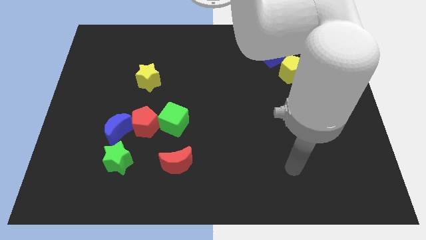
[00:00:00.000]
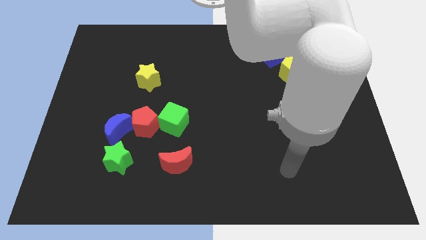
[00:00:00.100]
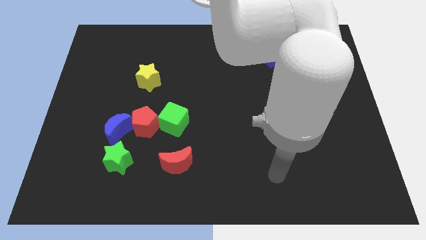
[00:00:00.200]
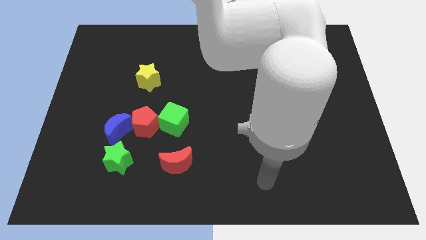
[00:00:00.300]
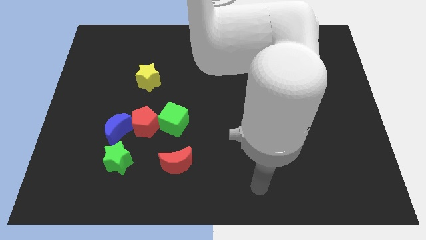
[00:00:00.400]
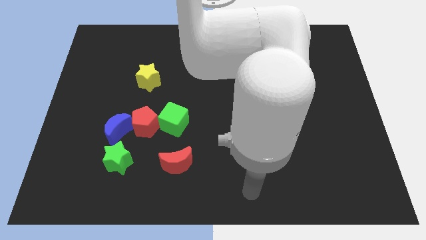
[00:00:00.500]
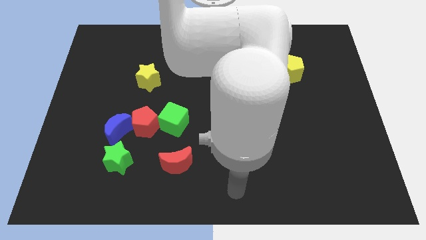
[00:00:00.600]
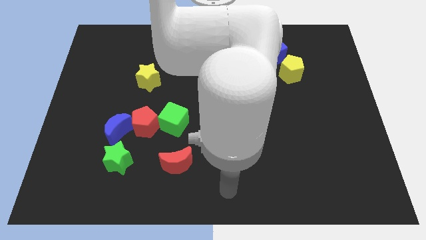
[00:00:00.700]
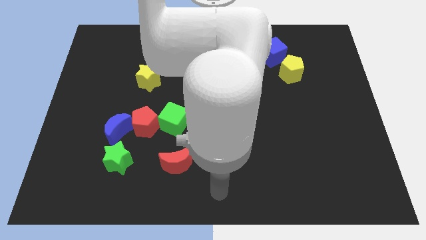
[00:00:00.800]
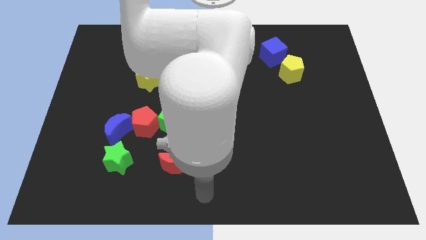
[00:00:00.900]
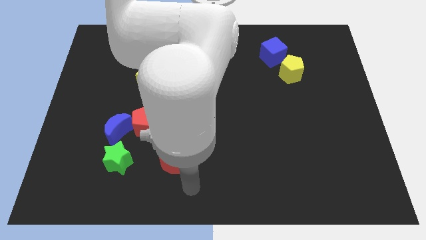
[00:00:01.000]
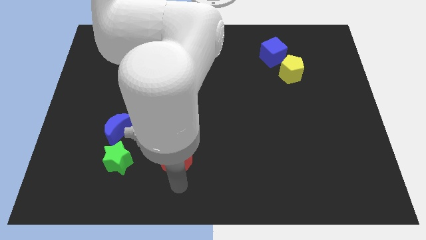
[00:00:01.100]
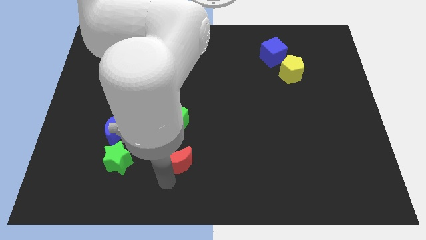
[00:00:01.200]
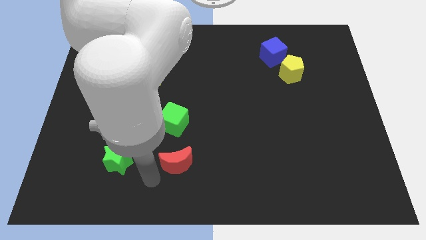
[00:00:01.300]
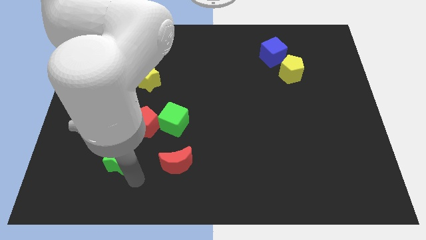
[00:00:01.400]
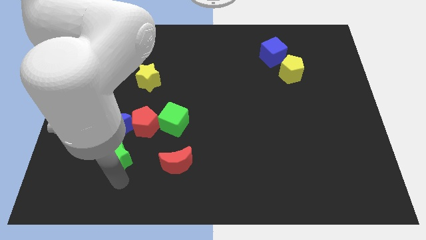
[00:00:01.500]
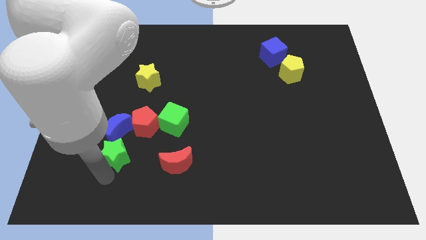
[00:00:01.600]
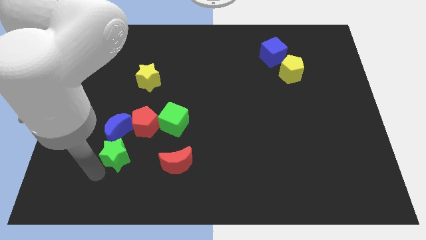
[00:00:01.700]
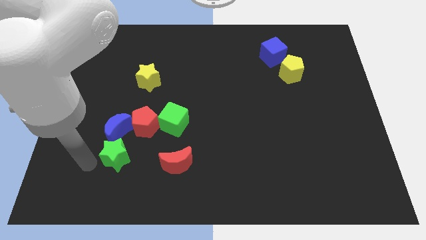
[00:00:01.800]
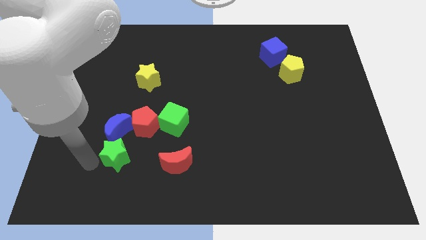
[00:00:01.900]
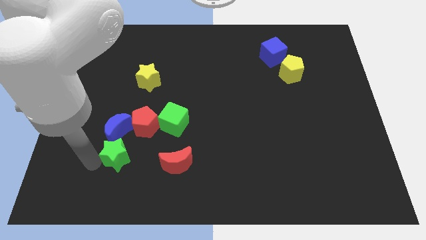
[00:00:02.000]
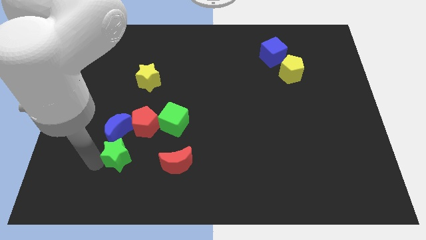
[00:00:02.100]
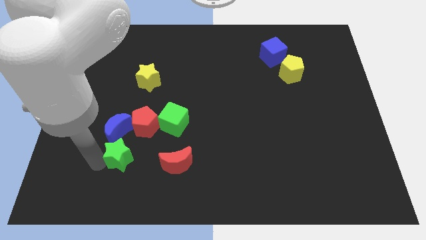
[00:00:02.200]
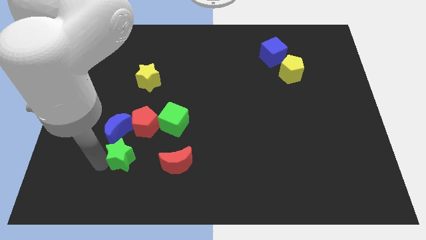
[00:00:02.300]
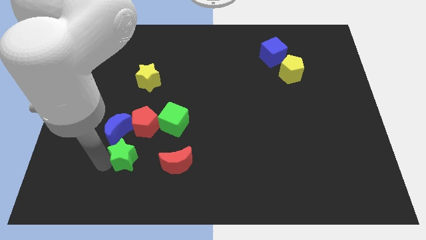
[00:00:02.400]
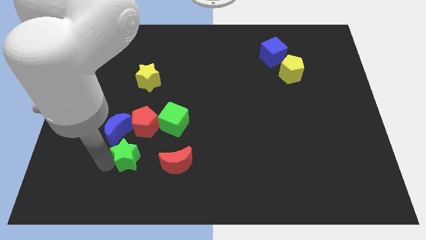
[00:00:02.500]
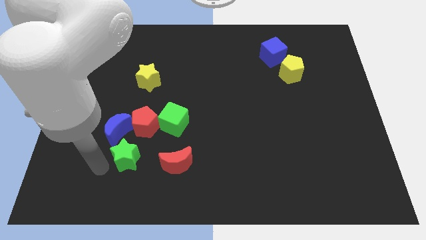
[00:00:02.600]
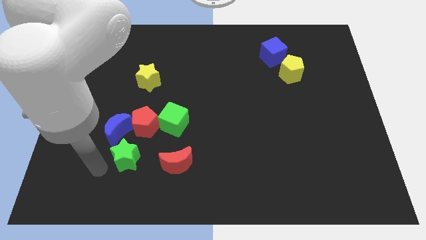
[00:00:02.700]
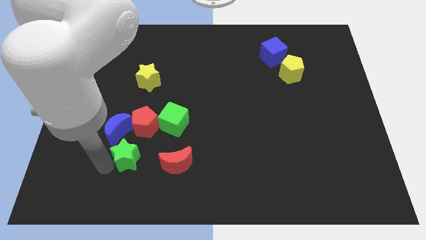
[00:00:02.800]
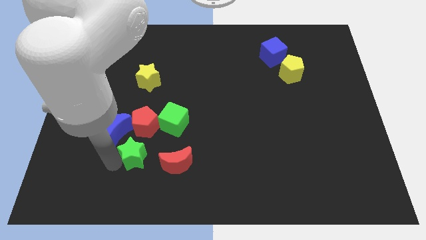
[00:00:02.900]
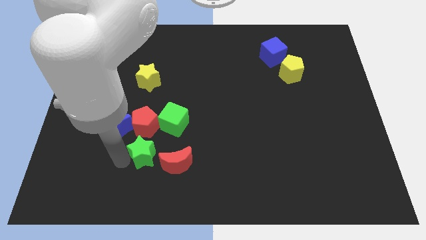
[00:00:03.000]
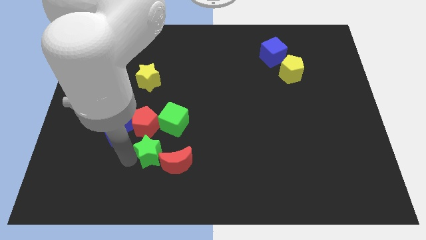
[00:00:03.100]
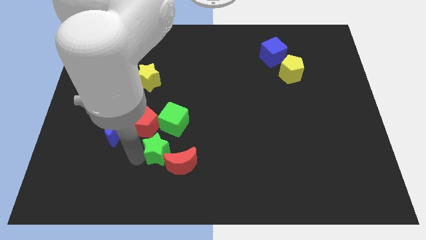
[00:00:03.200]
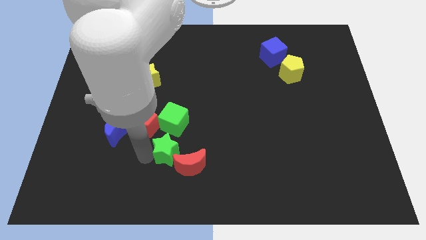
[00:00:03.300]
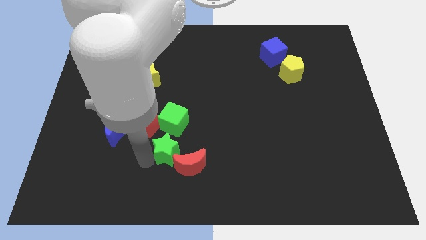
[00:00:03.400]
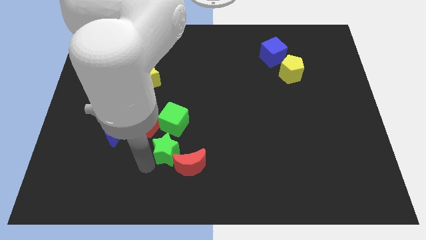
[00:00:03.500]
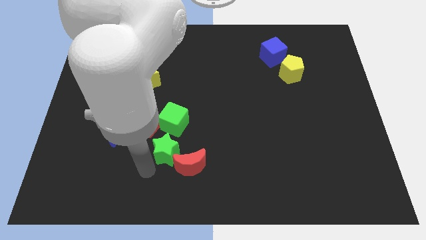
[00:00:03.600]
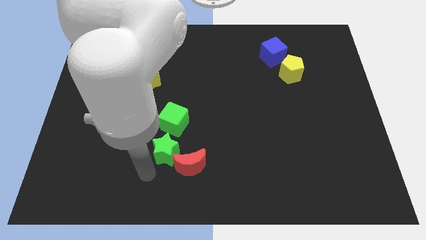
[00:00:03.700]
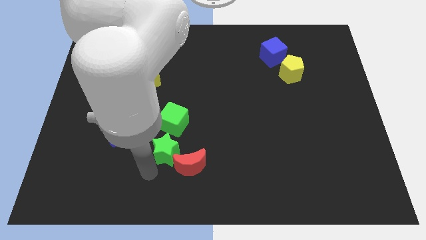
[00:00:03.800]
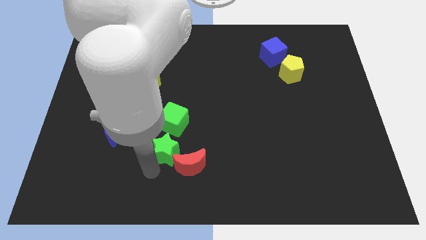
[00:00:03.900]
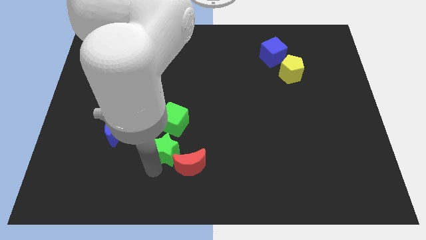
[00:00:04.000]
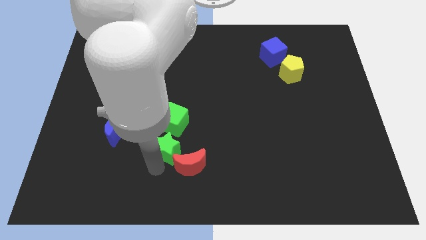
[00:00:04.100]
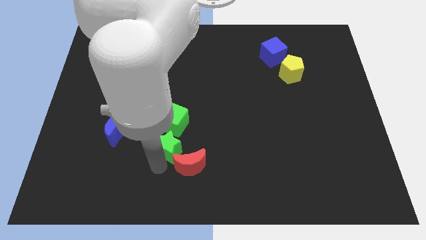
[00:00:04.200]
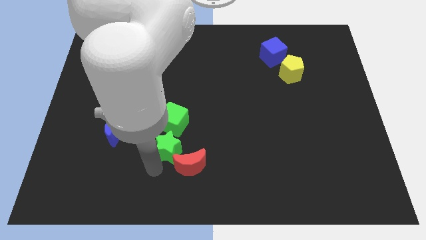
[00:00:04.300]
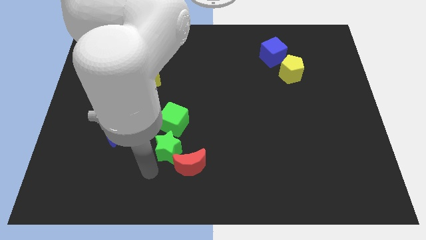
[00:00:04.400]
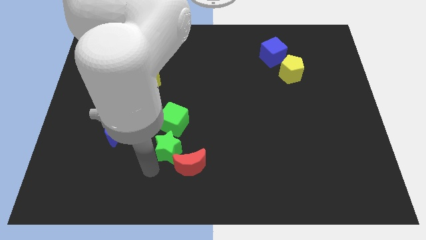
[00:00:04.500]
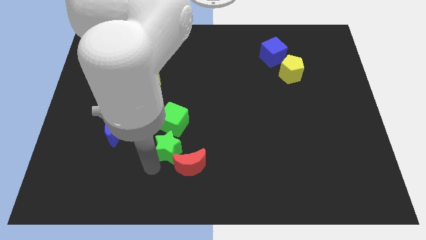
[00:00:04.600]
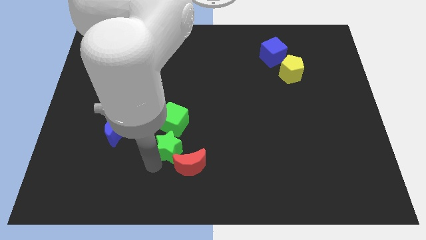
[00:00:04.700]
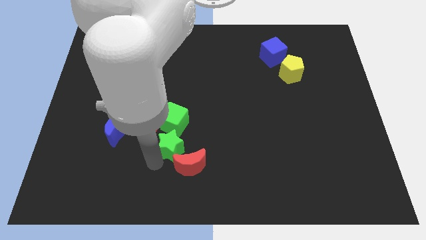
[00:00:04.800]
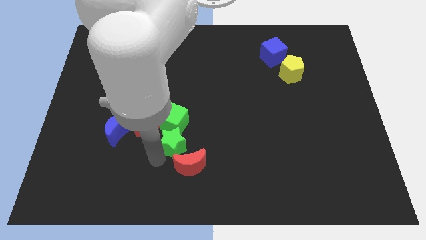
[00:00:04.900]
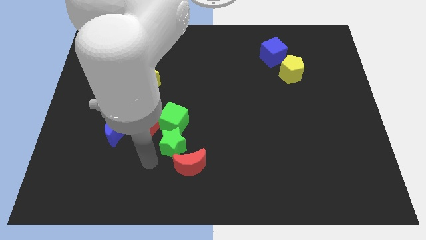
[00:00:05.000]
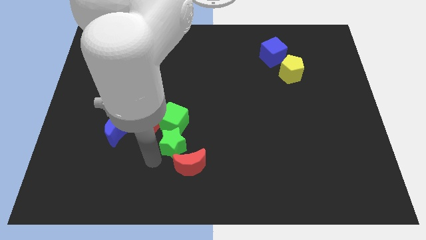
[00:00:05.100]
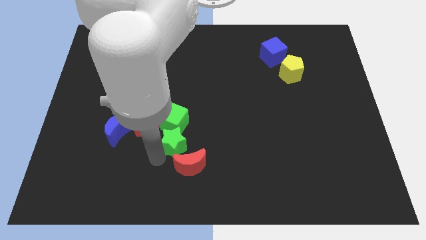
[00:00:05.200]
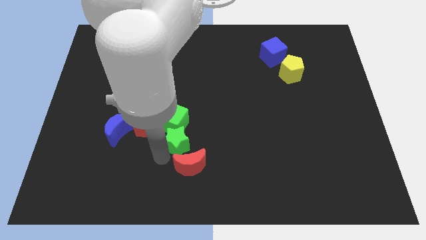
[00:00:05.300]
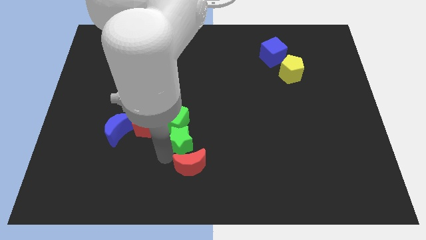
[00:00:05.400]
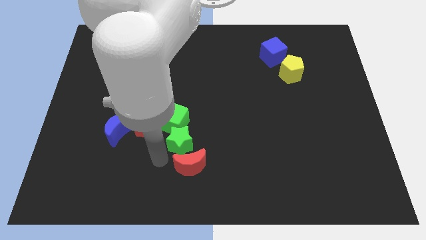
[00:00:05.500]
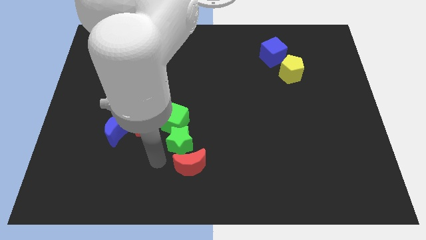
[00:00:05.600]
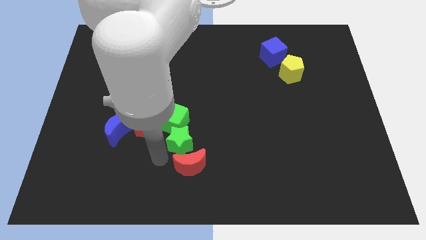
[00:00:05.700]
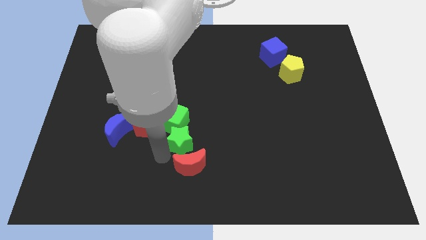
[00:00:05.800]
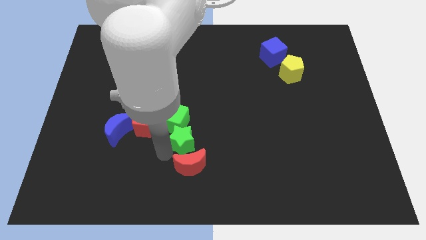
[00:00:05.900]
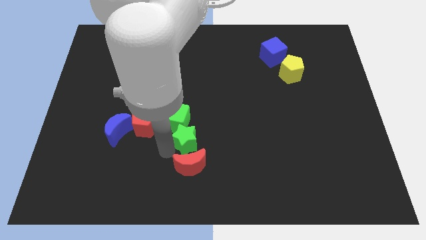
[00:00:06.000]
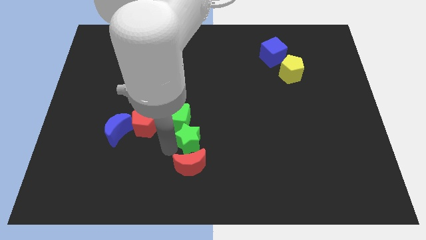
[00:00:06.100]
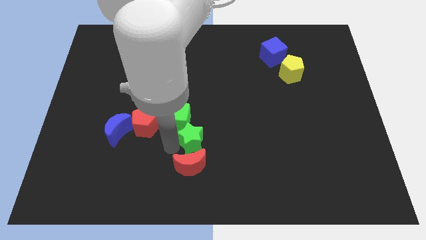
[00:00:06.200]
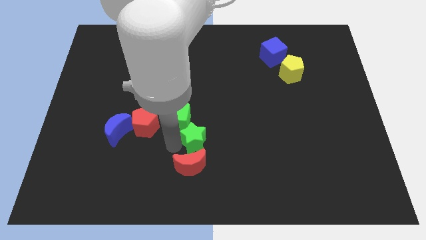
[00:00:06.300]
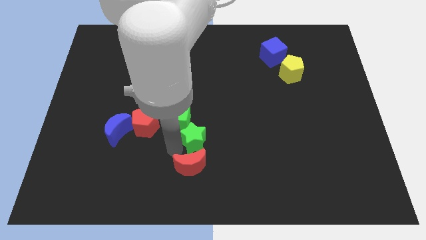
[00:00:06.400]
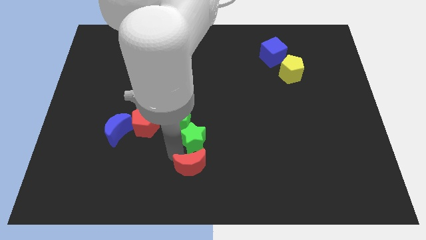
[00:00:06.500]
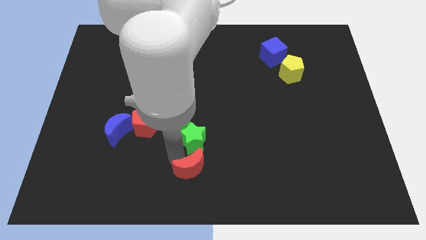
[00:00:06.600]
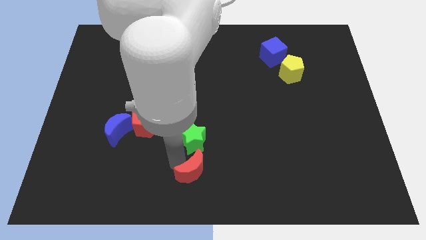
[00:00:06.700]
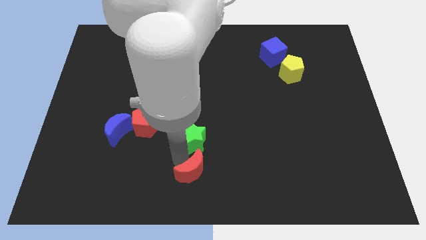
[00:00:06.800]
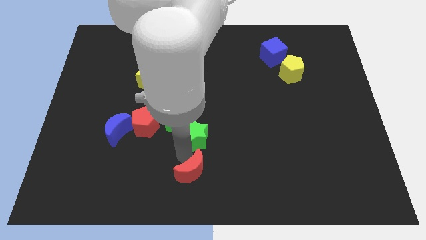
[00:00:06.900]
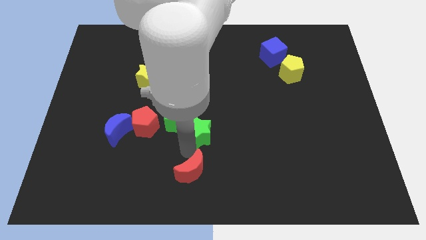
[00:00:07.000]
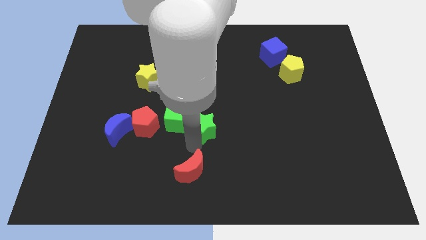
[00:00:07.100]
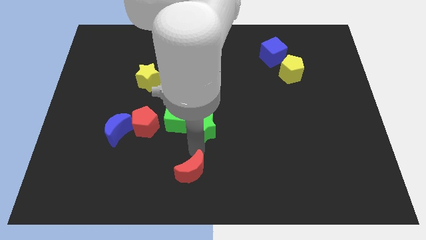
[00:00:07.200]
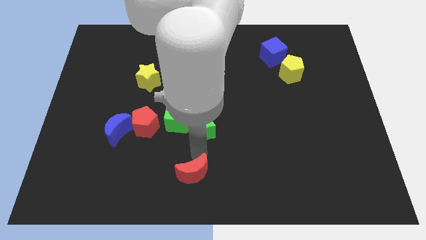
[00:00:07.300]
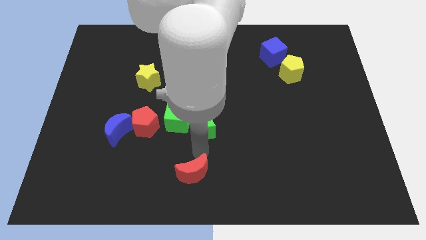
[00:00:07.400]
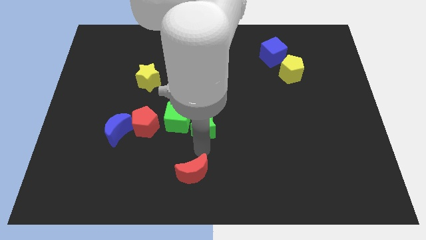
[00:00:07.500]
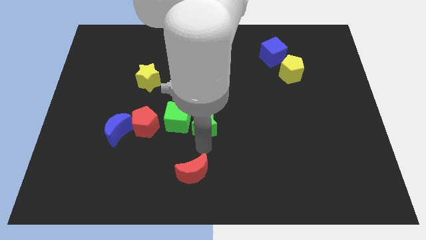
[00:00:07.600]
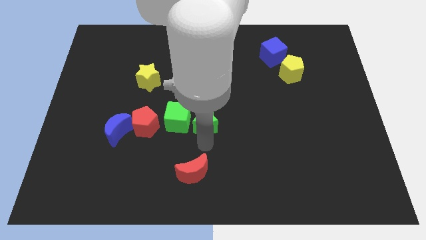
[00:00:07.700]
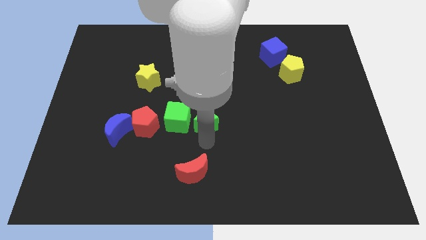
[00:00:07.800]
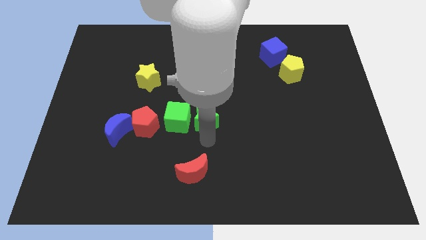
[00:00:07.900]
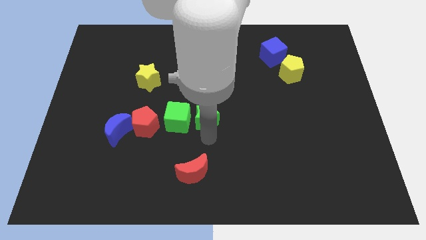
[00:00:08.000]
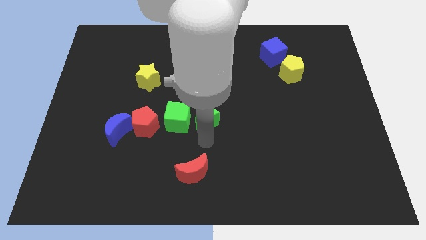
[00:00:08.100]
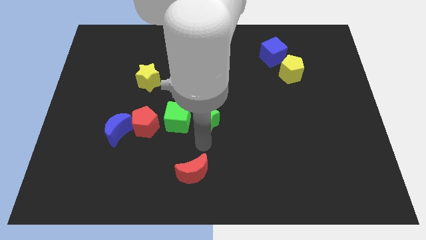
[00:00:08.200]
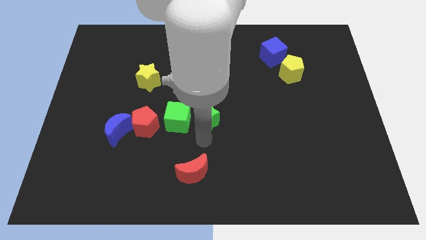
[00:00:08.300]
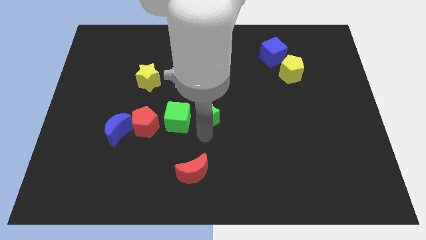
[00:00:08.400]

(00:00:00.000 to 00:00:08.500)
slide the green star upwards and right diagonally
